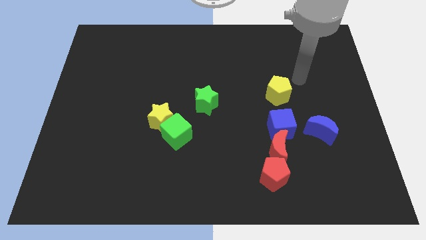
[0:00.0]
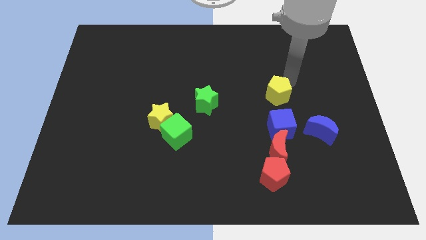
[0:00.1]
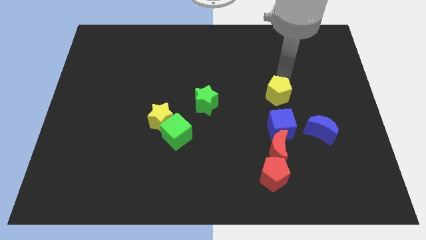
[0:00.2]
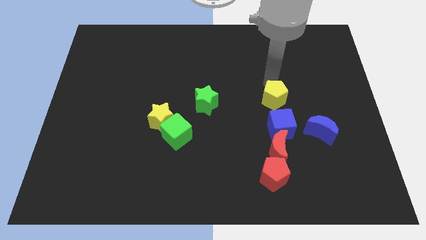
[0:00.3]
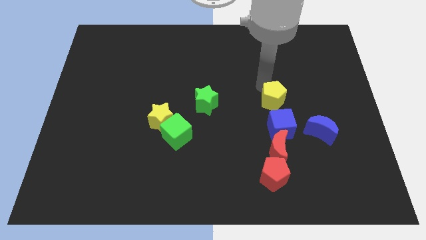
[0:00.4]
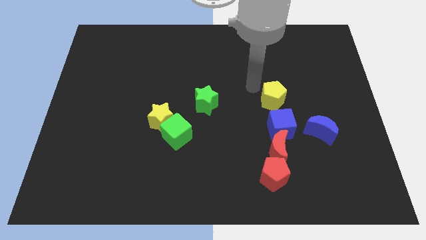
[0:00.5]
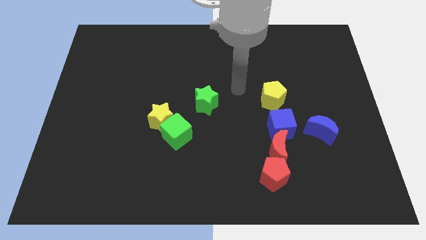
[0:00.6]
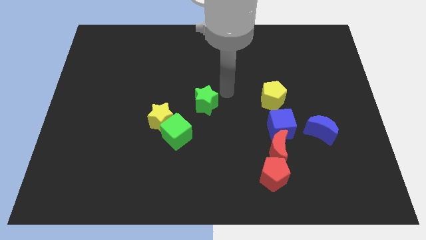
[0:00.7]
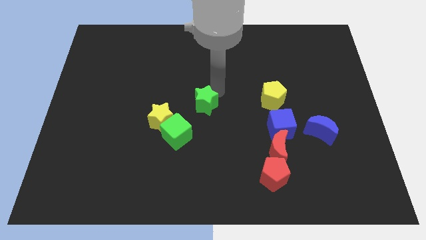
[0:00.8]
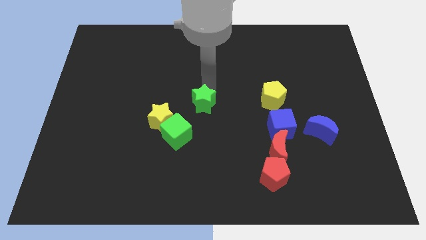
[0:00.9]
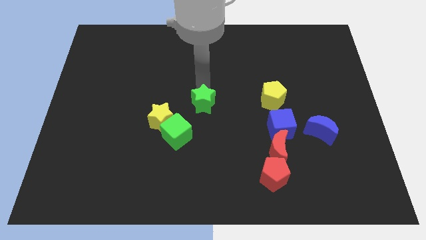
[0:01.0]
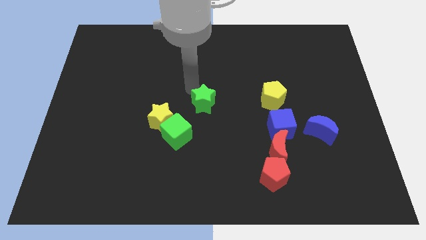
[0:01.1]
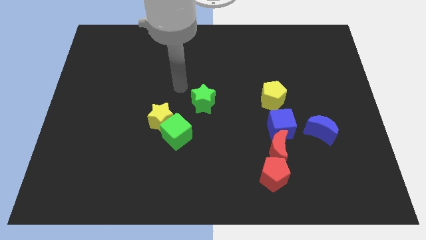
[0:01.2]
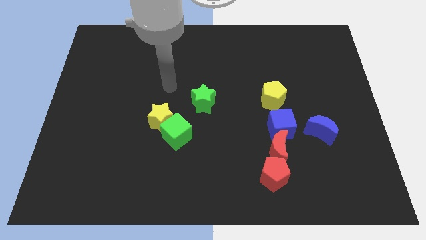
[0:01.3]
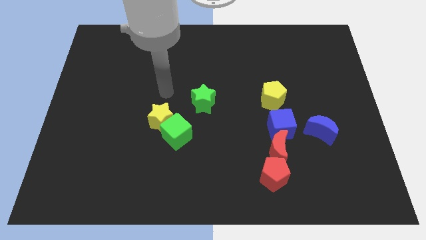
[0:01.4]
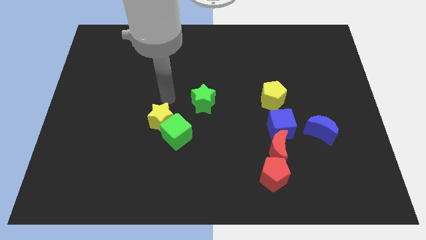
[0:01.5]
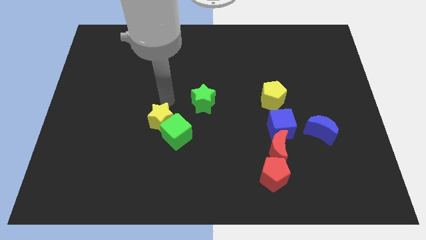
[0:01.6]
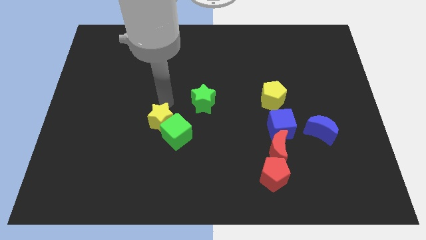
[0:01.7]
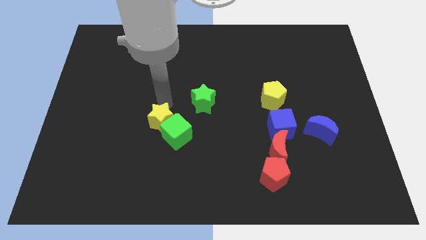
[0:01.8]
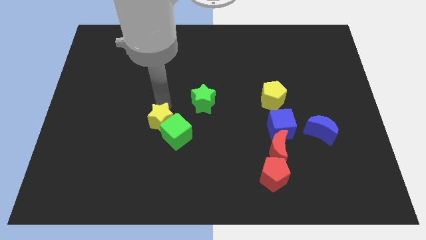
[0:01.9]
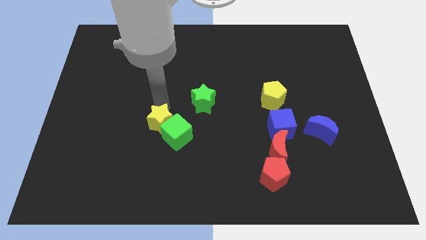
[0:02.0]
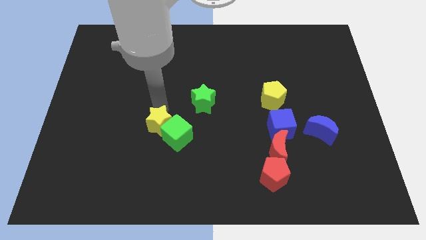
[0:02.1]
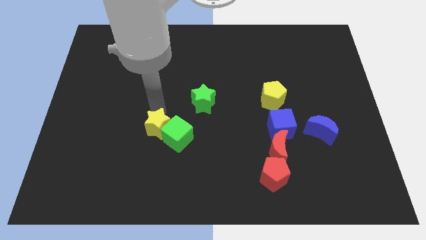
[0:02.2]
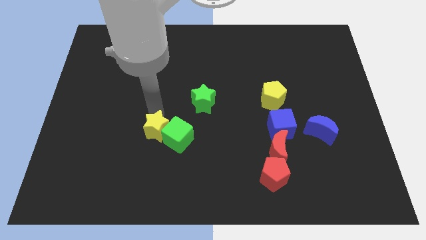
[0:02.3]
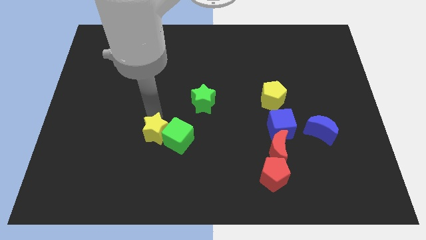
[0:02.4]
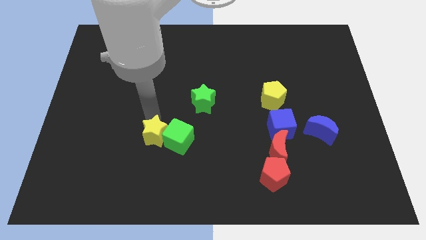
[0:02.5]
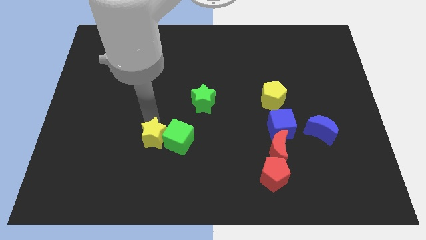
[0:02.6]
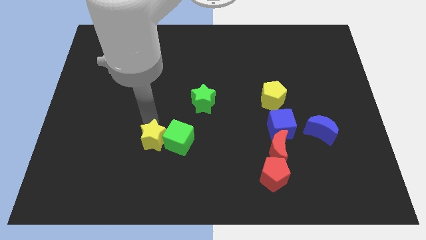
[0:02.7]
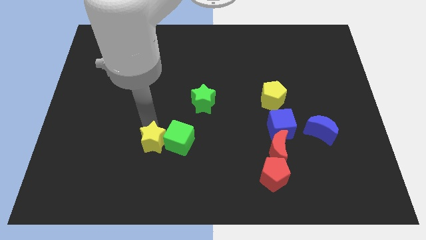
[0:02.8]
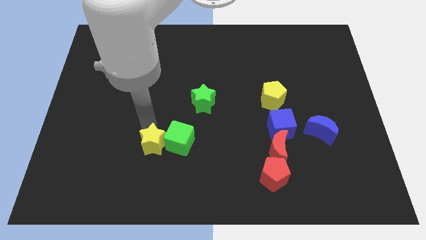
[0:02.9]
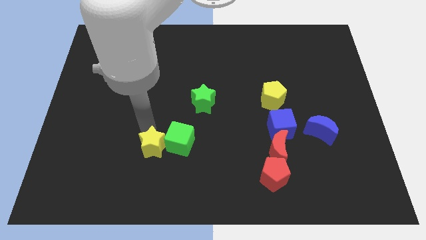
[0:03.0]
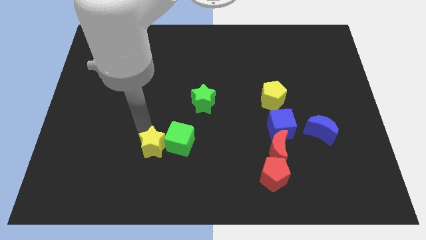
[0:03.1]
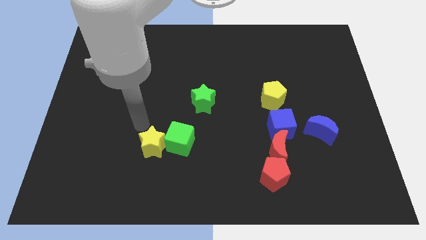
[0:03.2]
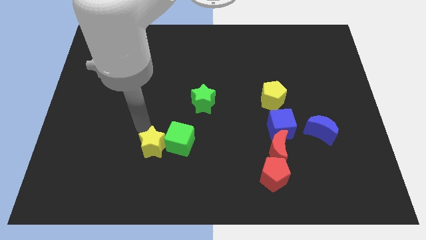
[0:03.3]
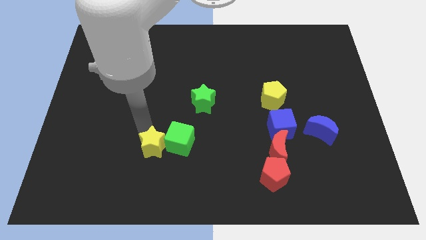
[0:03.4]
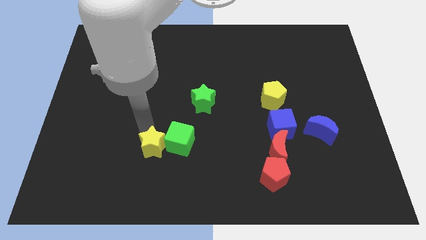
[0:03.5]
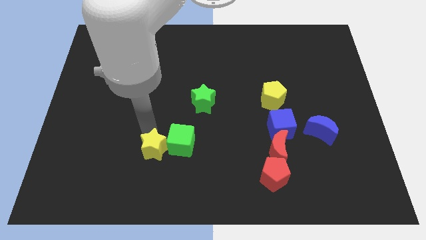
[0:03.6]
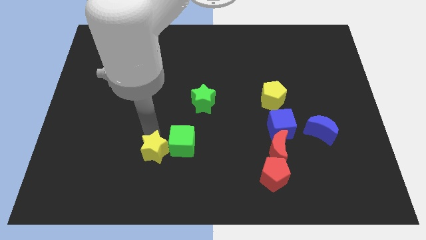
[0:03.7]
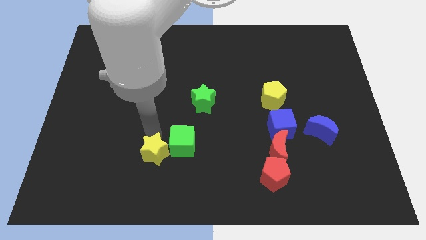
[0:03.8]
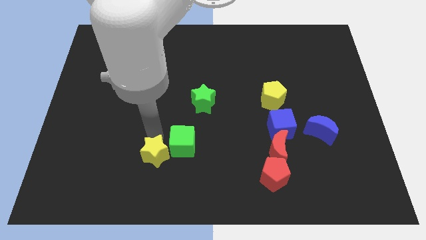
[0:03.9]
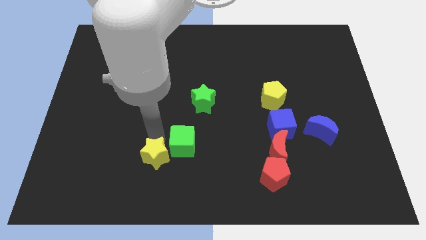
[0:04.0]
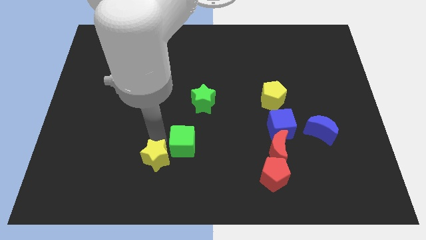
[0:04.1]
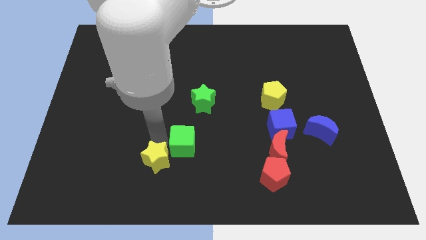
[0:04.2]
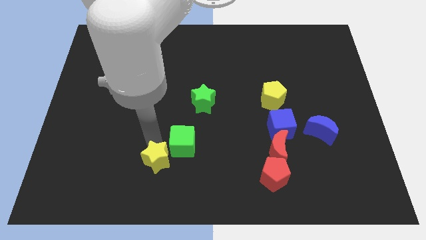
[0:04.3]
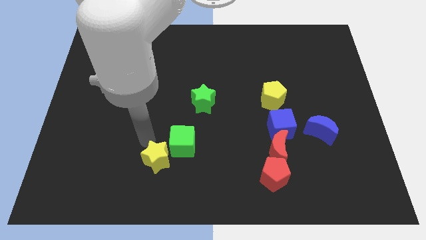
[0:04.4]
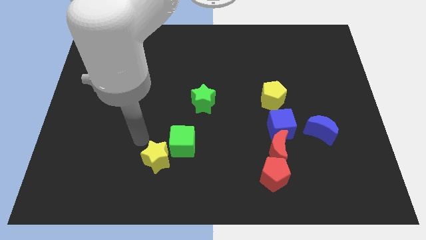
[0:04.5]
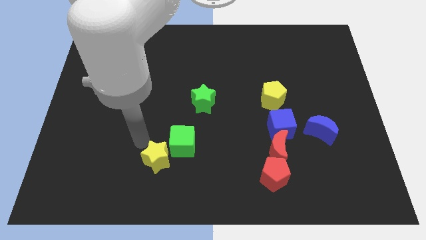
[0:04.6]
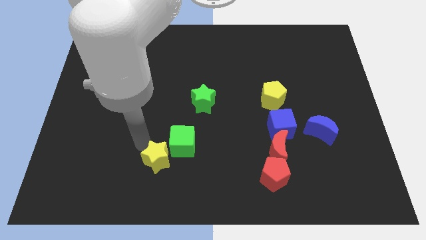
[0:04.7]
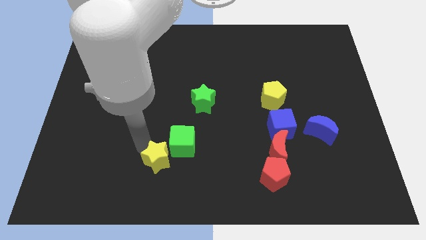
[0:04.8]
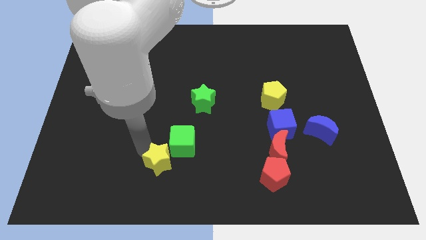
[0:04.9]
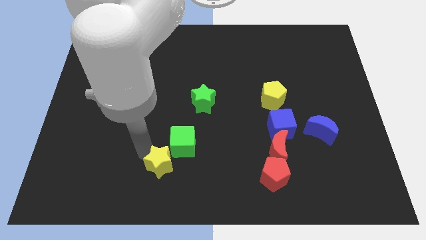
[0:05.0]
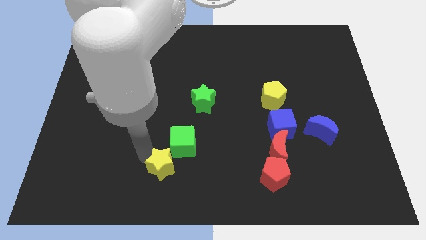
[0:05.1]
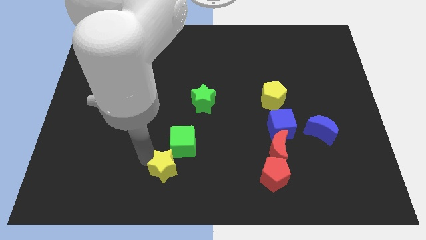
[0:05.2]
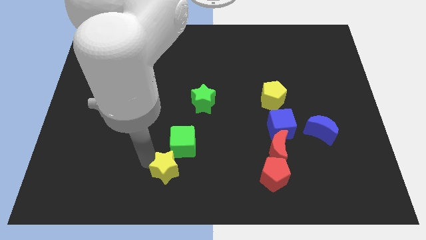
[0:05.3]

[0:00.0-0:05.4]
put the yellow star to the bottom
